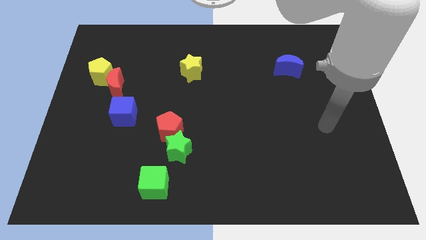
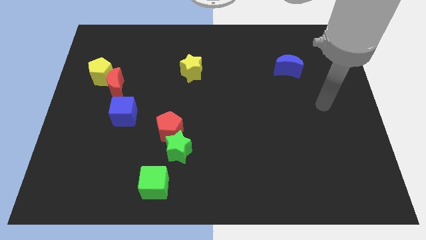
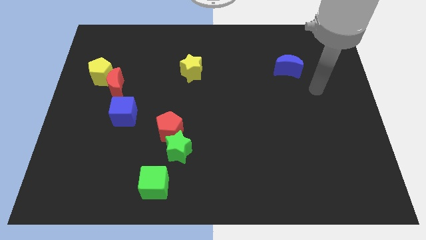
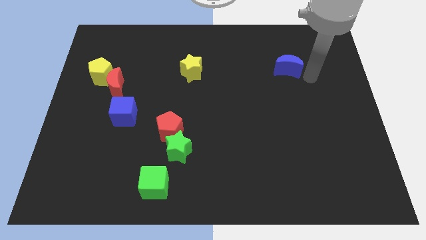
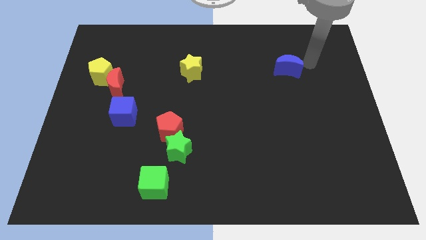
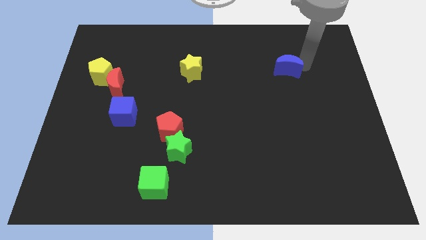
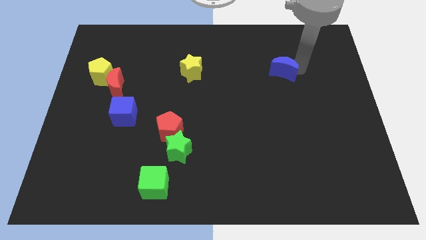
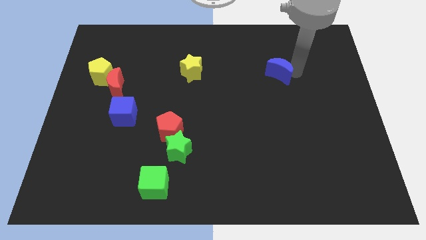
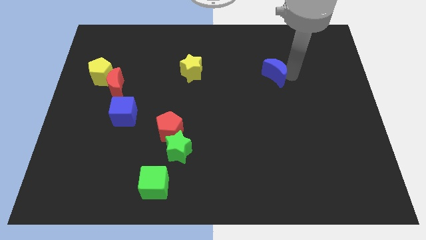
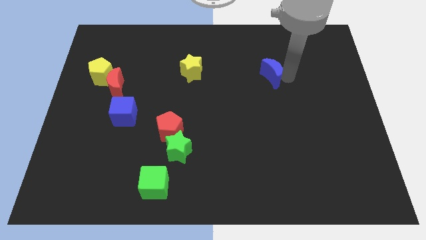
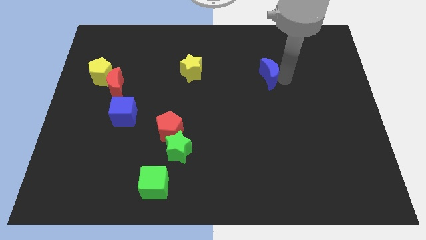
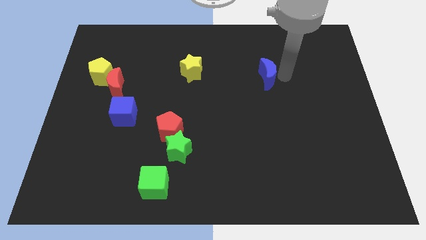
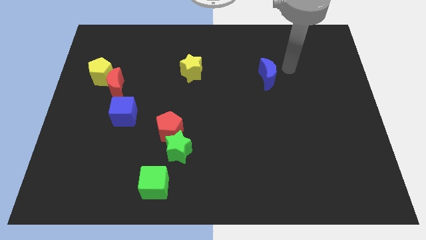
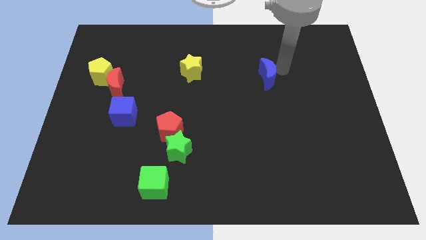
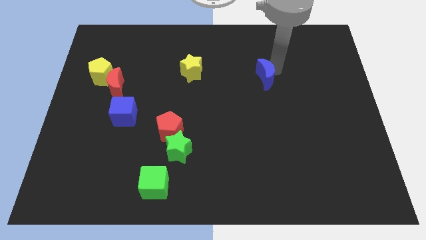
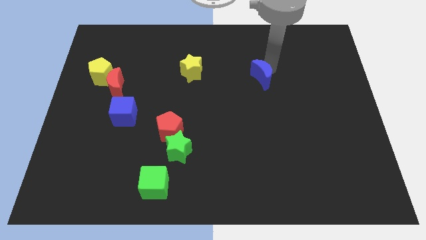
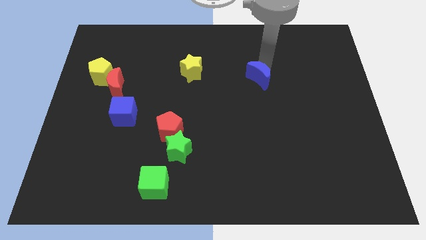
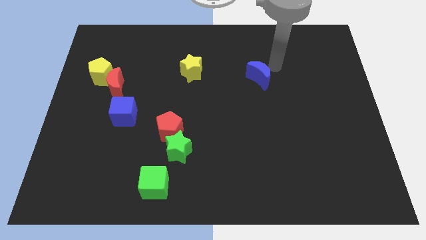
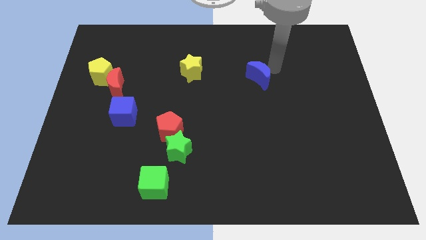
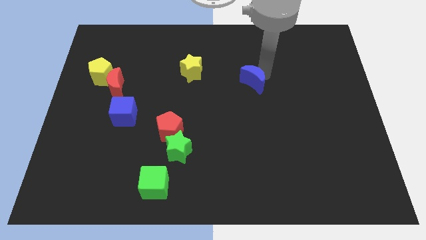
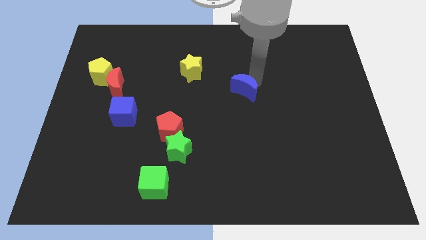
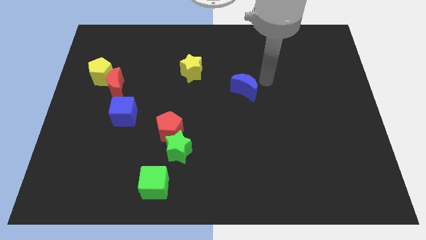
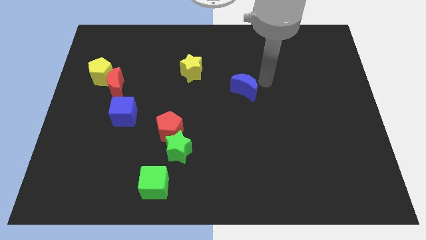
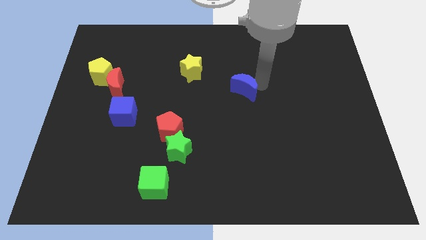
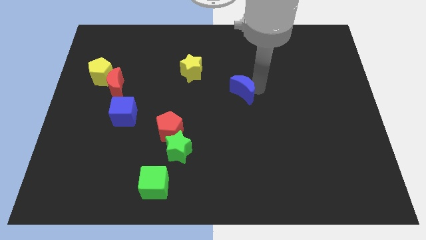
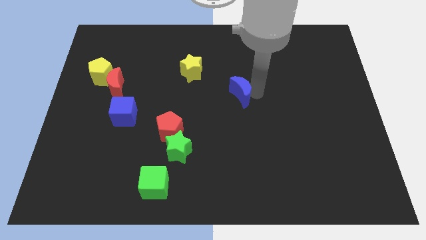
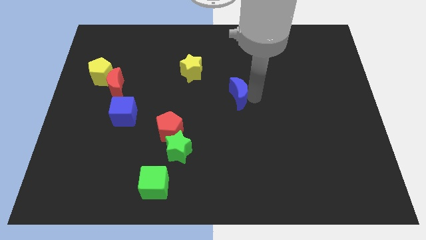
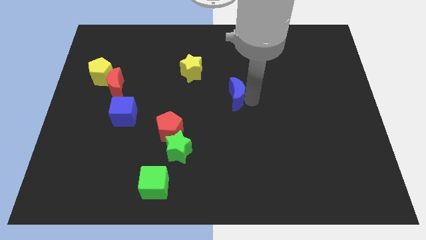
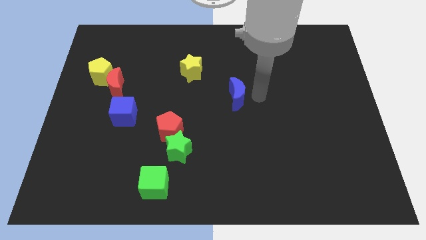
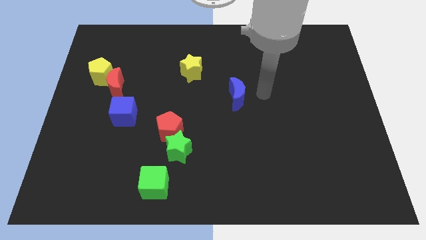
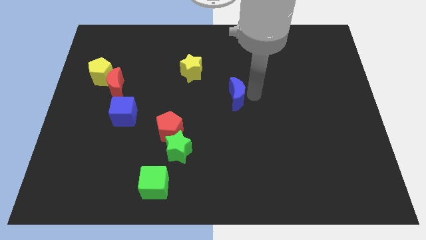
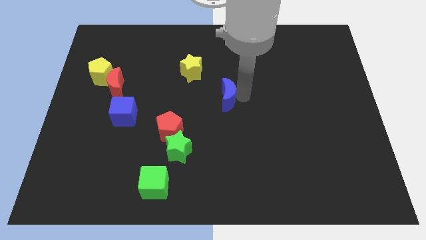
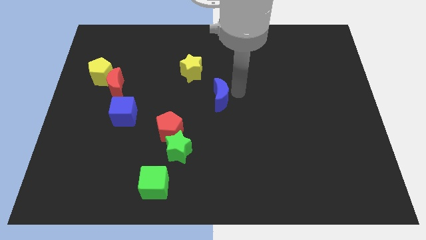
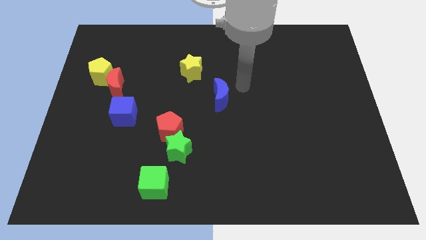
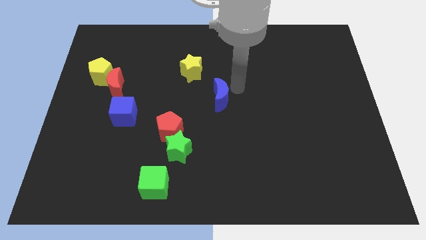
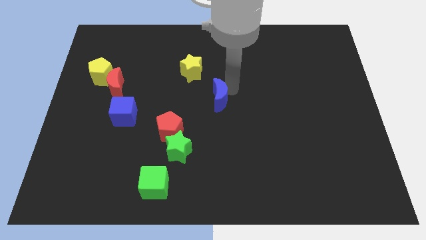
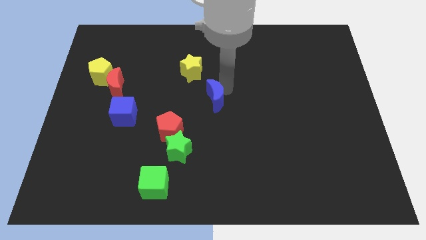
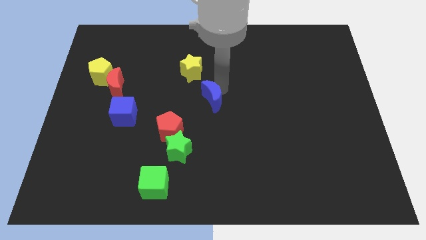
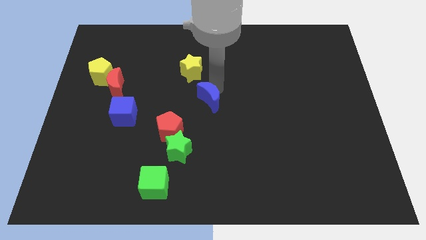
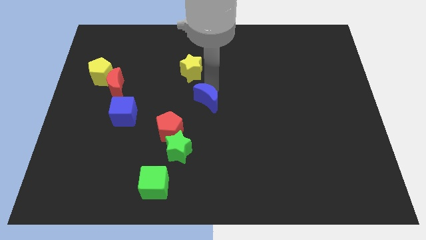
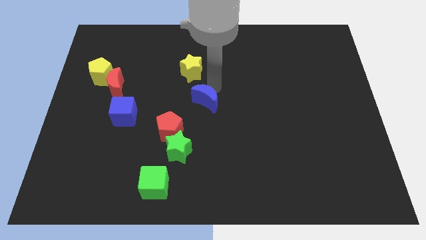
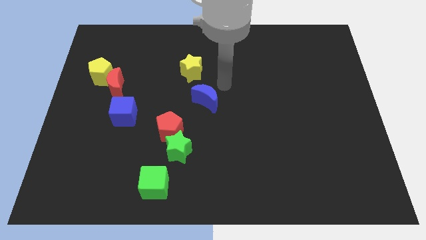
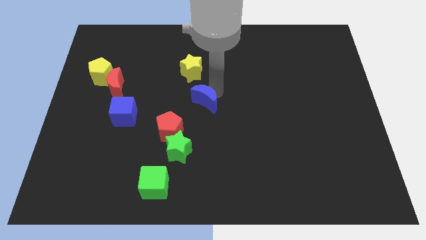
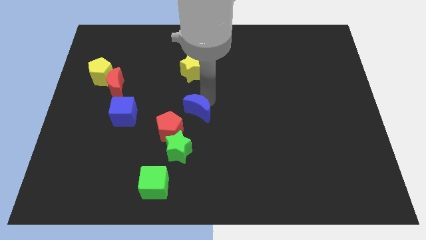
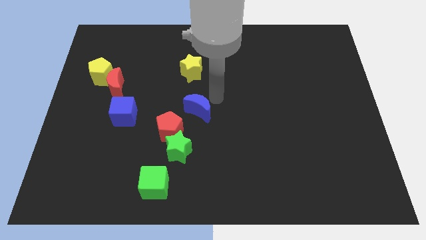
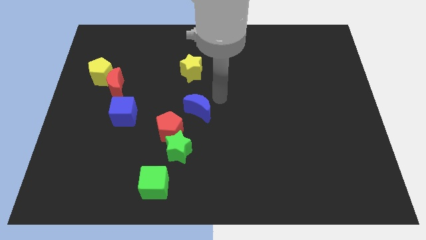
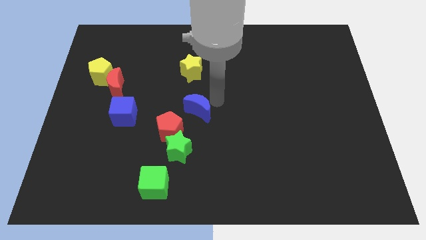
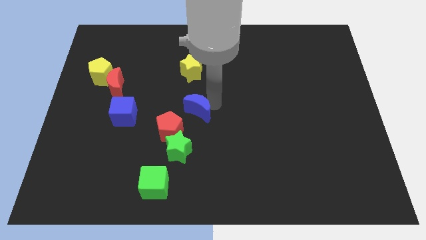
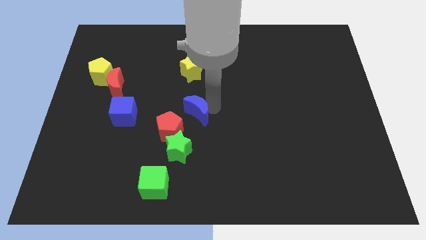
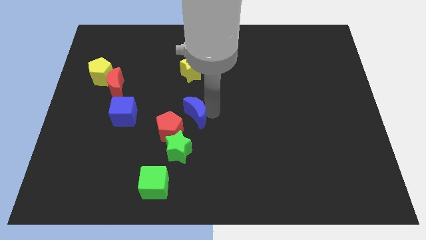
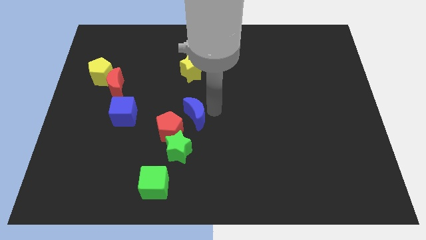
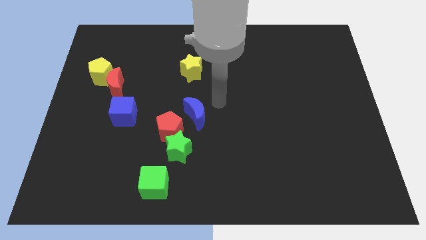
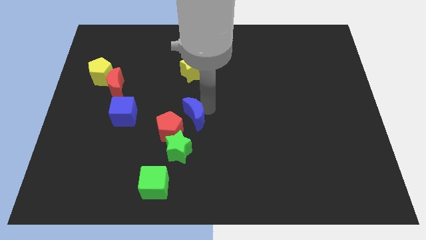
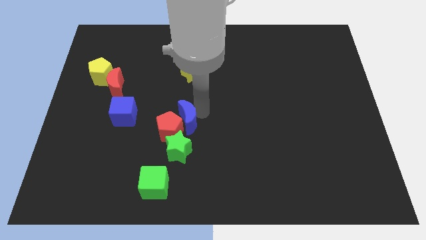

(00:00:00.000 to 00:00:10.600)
slide the blue moon towards the red pentagon

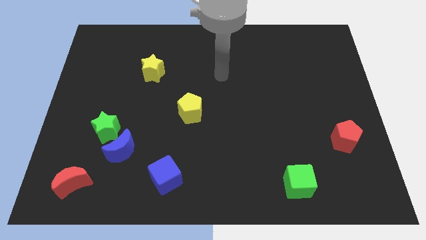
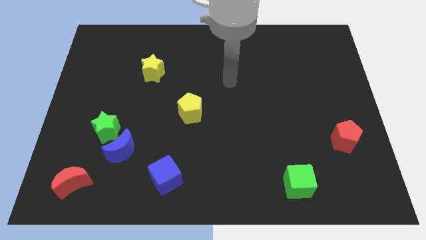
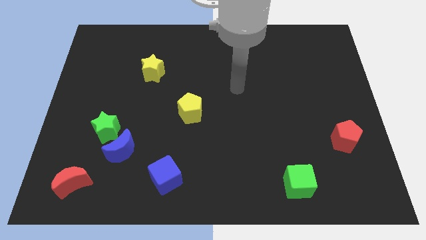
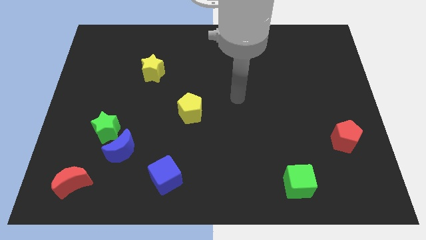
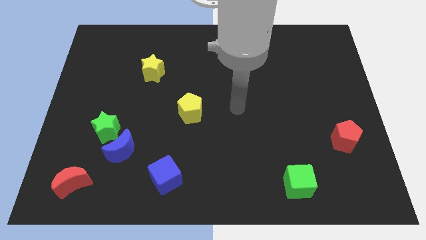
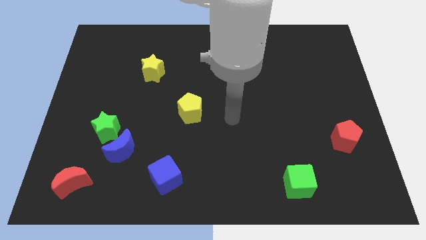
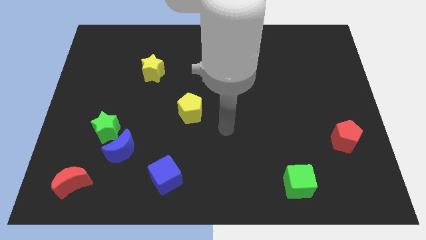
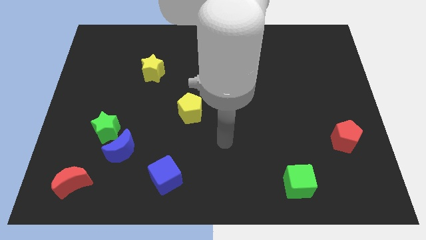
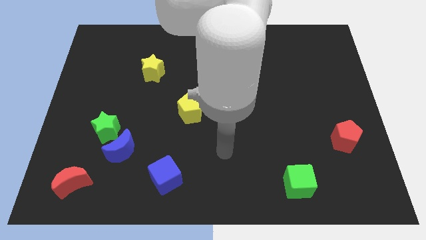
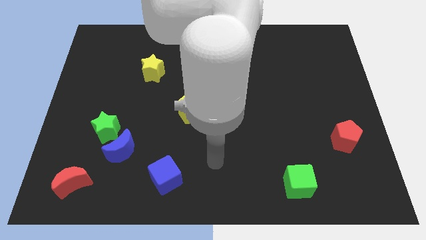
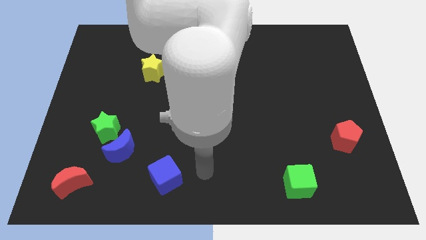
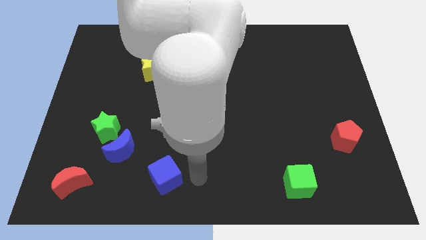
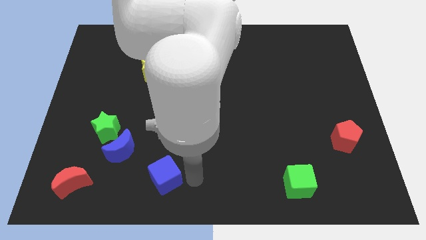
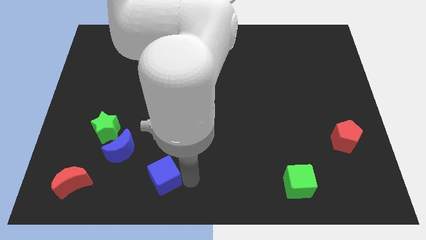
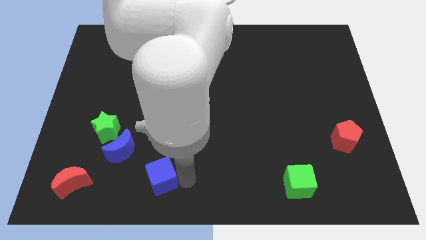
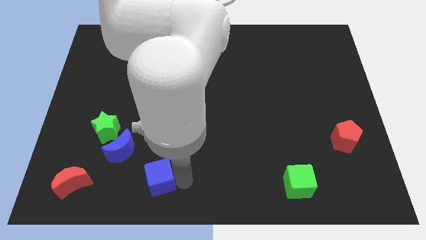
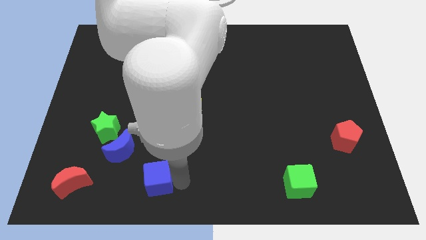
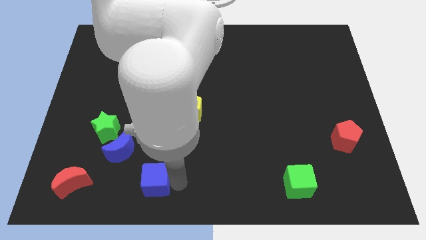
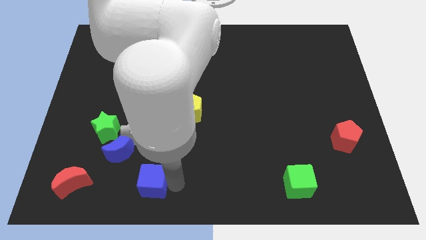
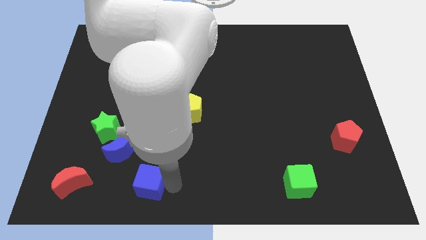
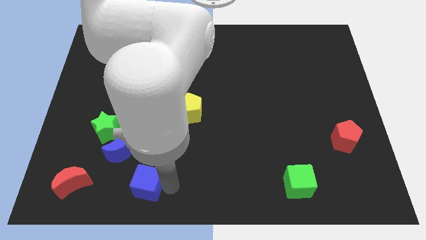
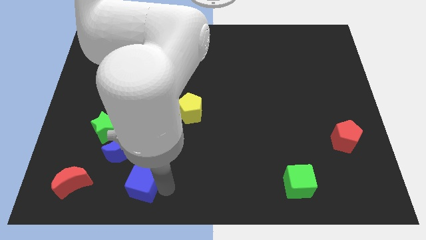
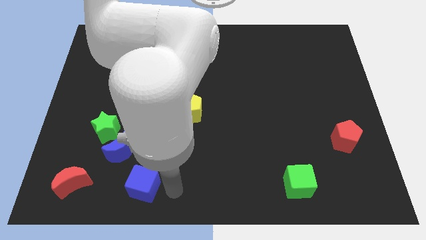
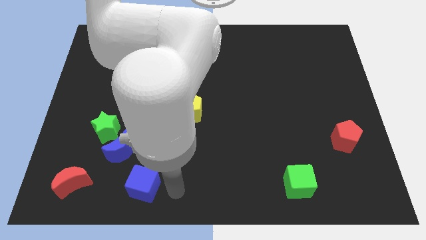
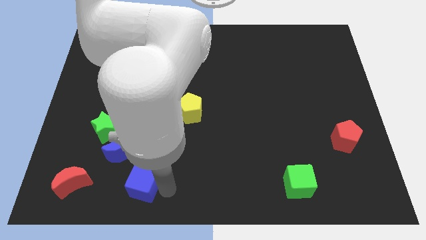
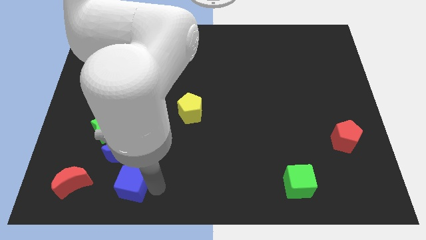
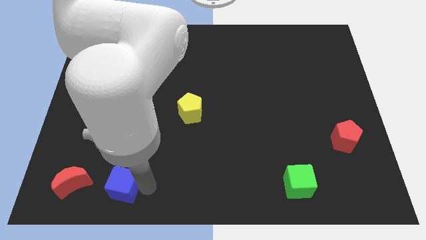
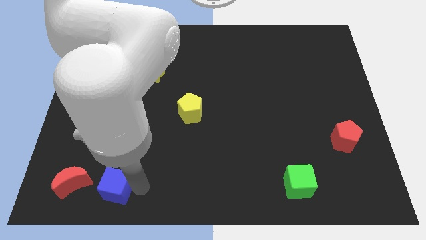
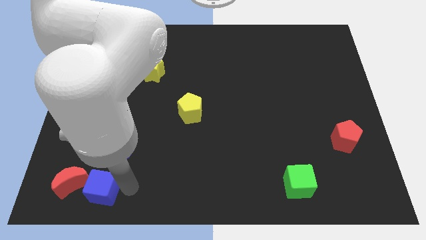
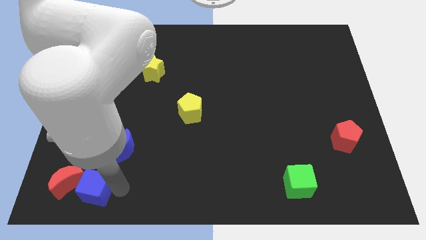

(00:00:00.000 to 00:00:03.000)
push the blue cube close to the red moon
